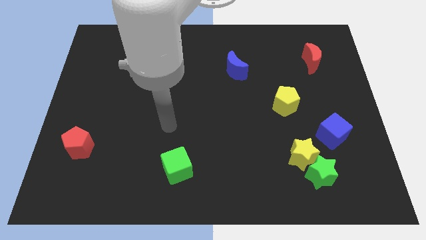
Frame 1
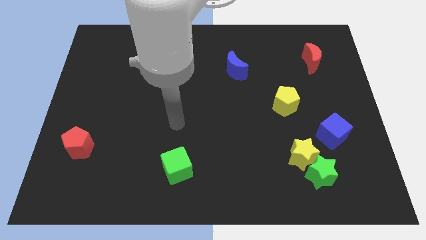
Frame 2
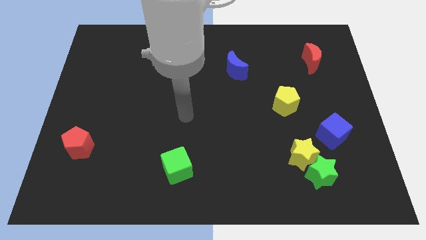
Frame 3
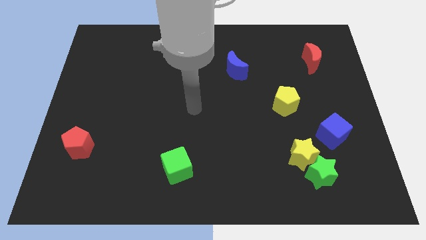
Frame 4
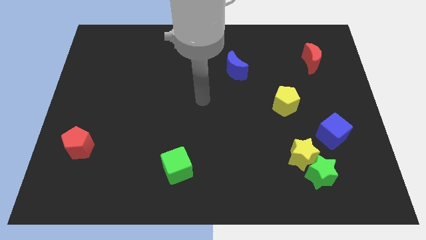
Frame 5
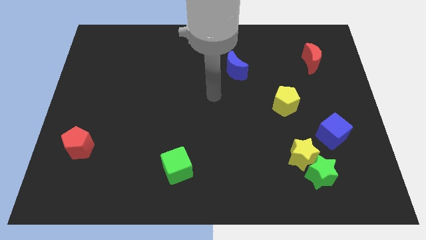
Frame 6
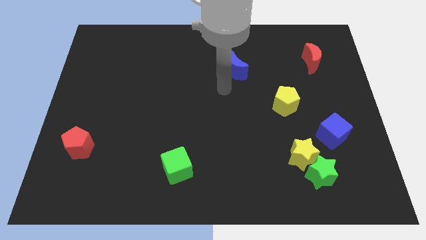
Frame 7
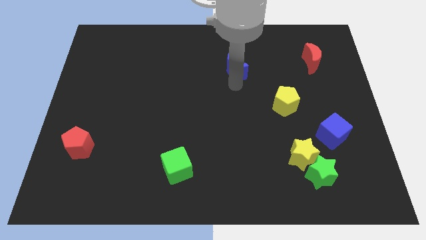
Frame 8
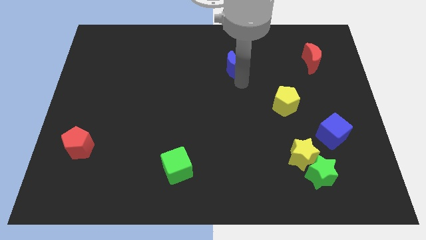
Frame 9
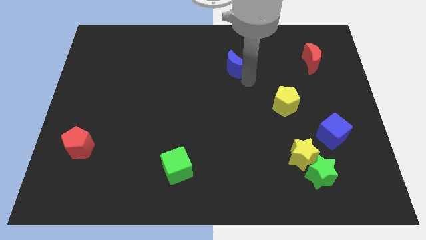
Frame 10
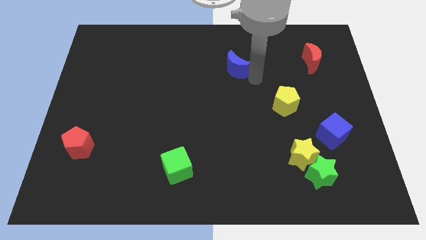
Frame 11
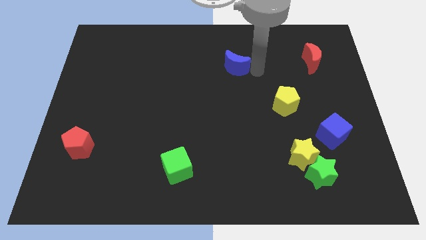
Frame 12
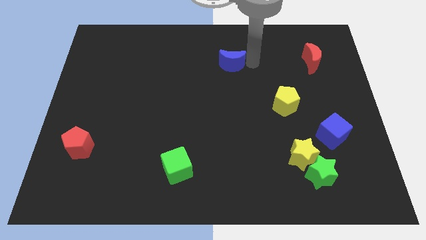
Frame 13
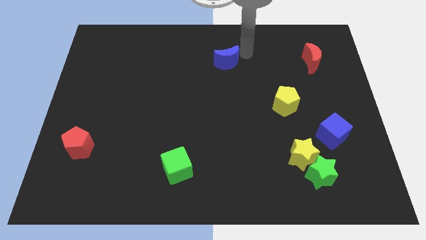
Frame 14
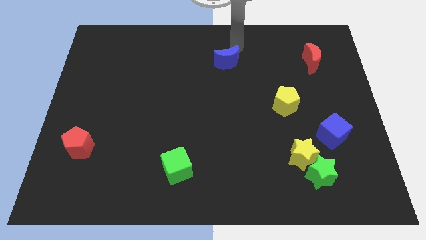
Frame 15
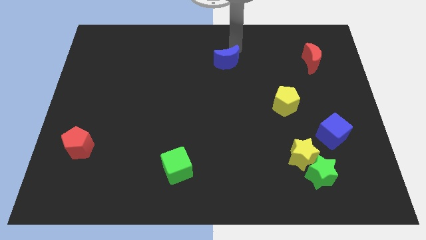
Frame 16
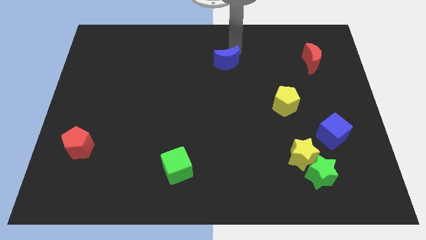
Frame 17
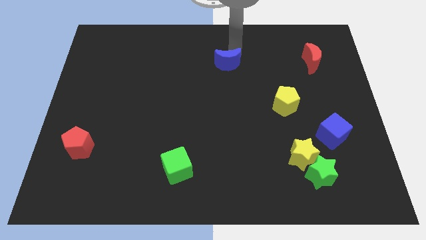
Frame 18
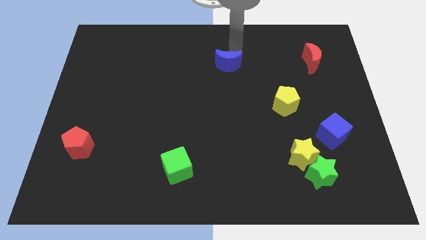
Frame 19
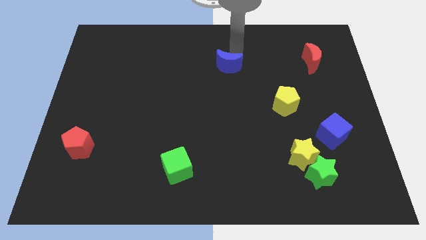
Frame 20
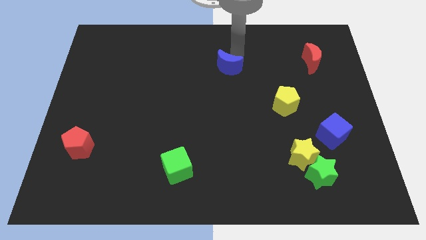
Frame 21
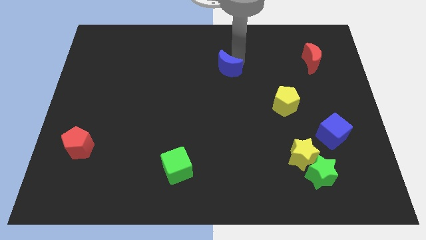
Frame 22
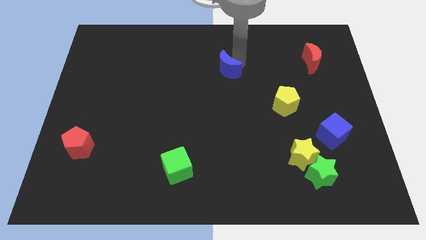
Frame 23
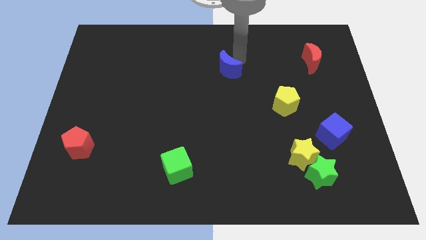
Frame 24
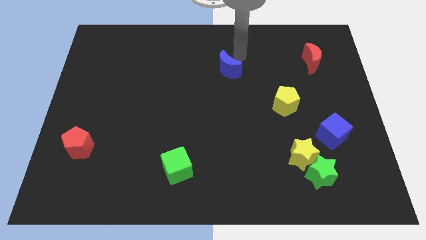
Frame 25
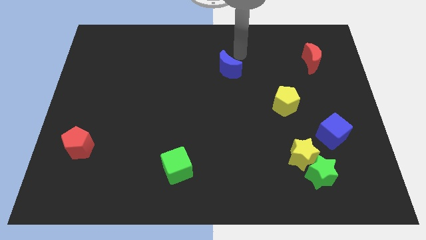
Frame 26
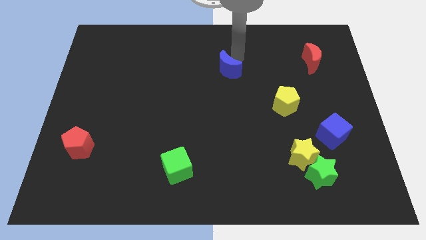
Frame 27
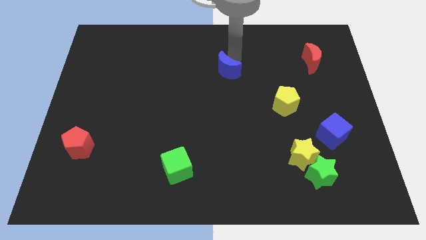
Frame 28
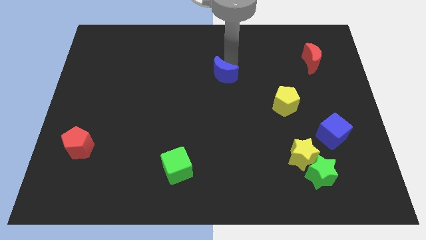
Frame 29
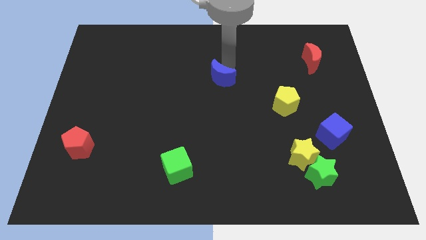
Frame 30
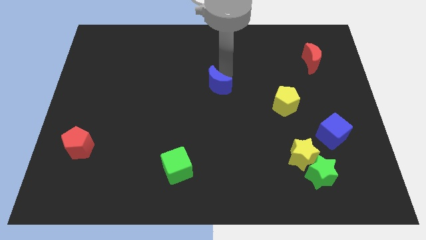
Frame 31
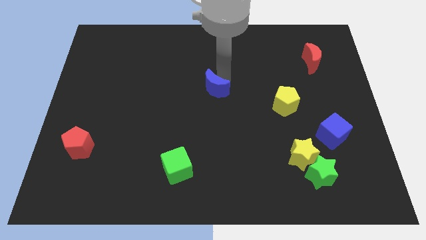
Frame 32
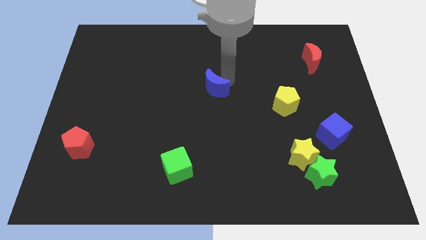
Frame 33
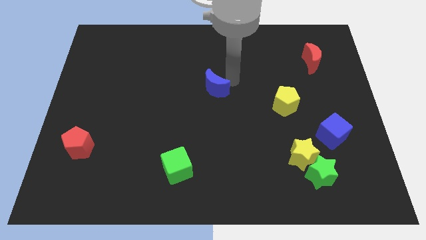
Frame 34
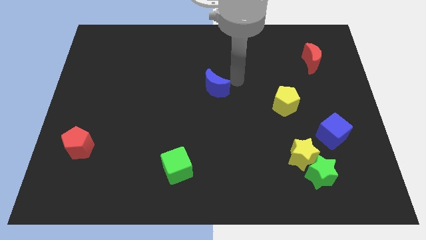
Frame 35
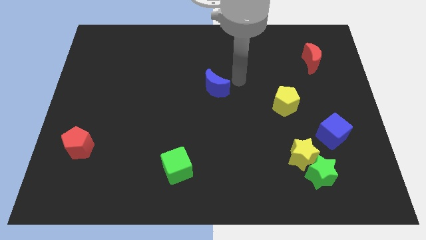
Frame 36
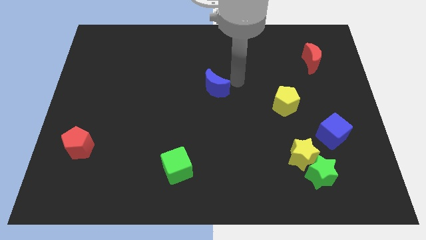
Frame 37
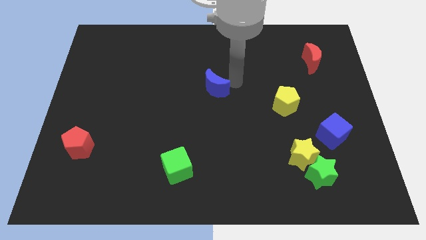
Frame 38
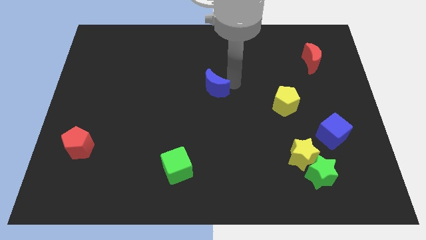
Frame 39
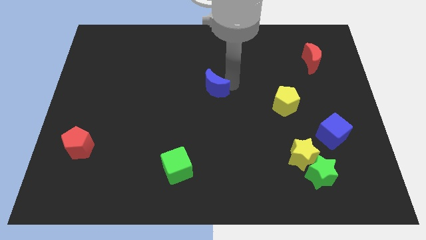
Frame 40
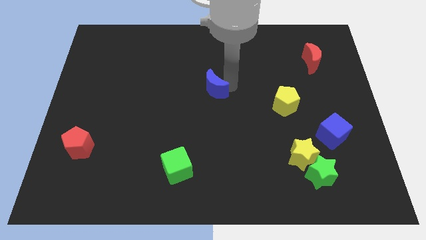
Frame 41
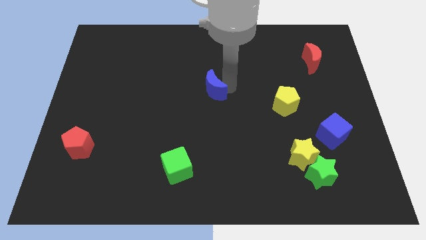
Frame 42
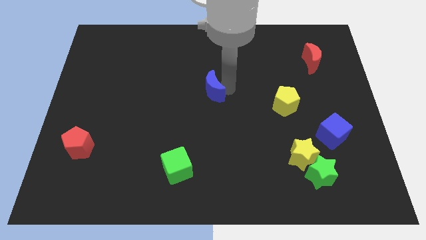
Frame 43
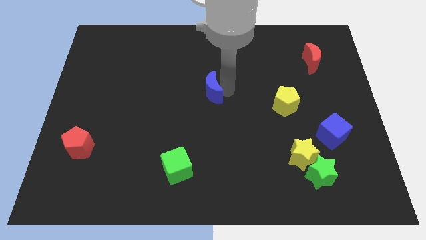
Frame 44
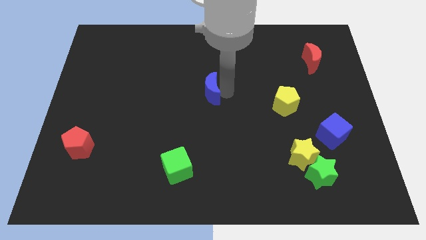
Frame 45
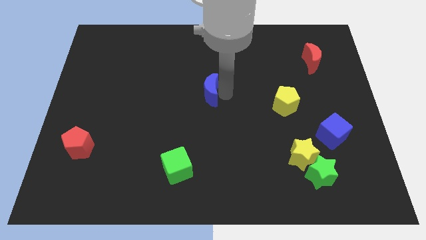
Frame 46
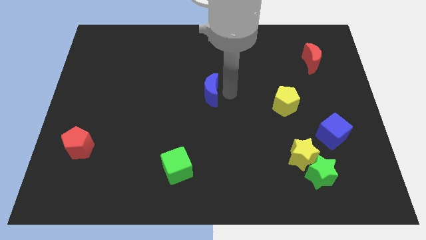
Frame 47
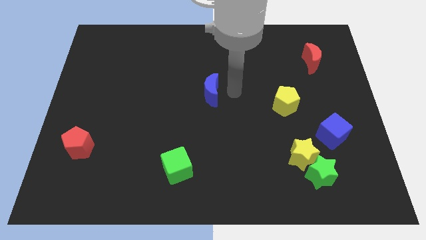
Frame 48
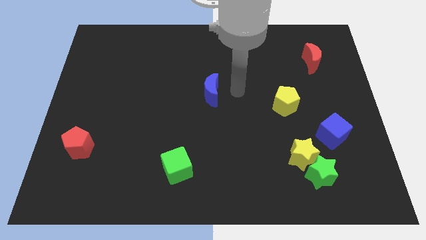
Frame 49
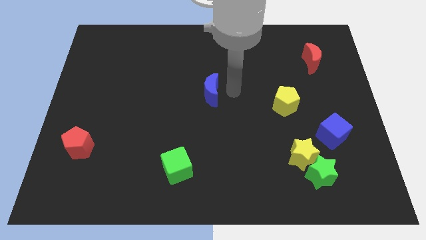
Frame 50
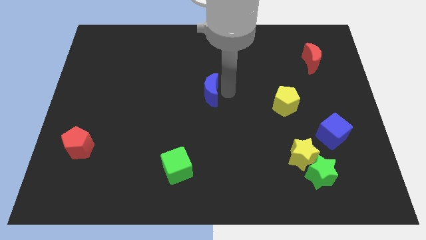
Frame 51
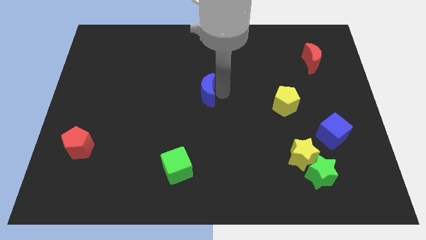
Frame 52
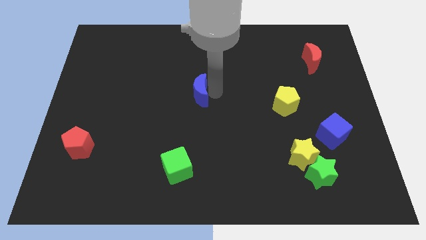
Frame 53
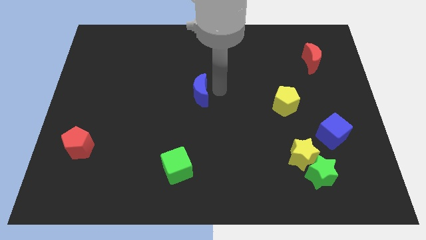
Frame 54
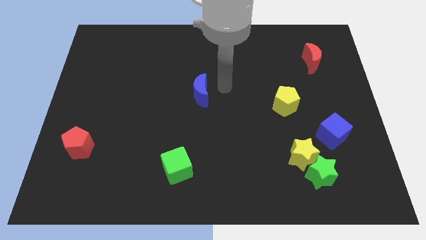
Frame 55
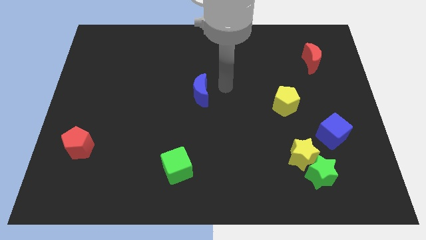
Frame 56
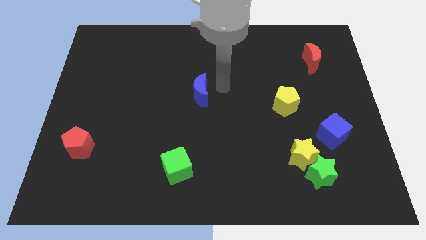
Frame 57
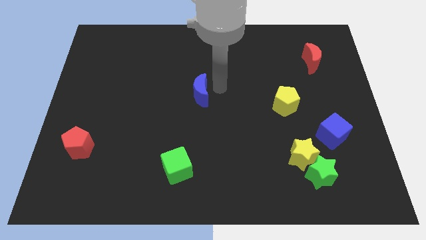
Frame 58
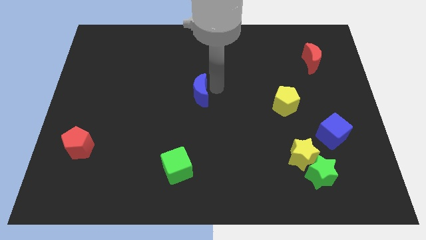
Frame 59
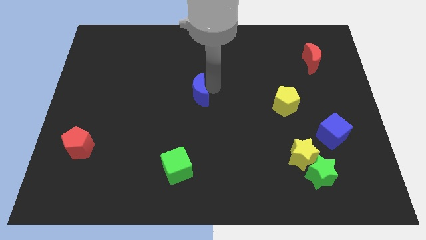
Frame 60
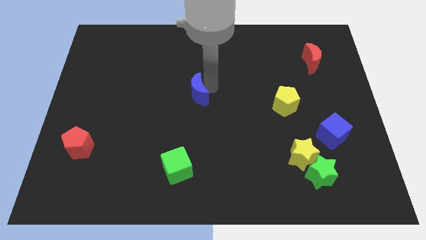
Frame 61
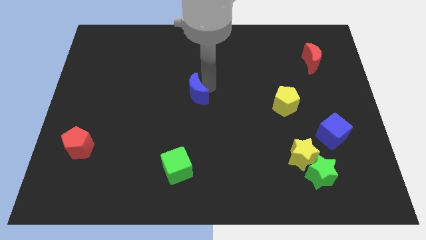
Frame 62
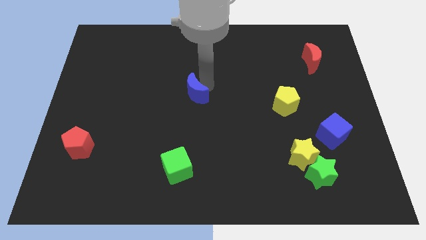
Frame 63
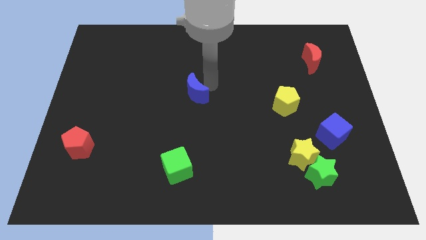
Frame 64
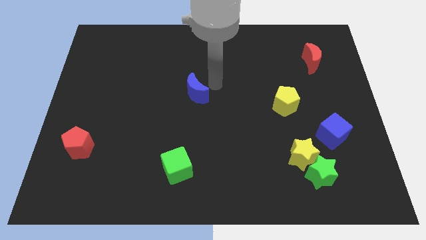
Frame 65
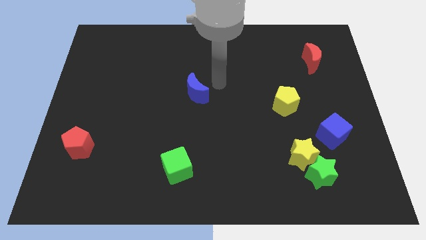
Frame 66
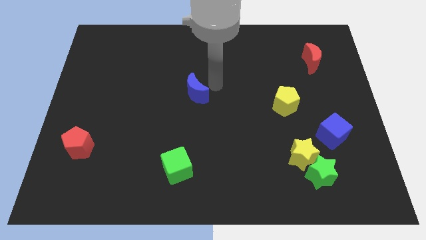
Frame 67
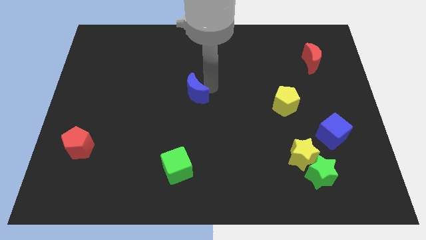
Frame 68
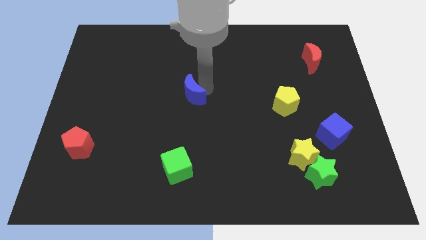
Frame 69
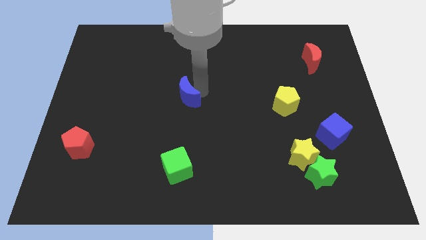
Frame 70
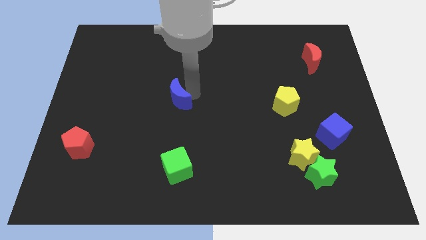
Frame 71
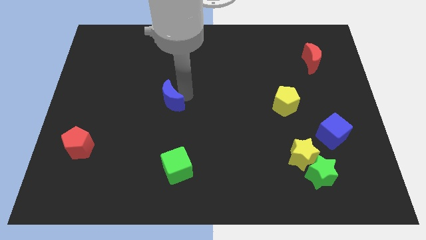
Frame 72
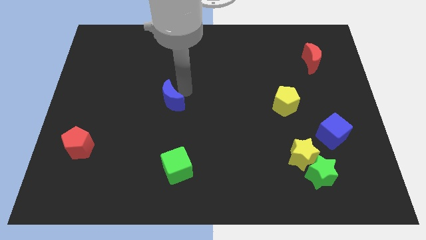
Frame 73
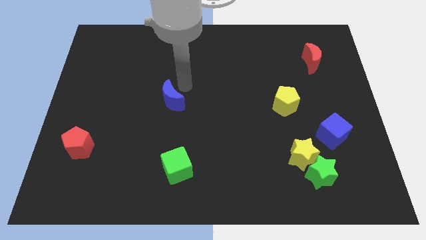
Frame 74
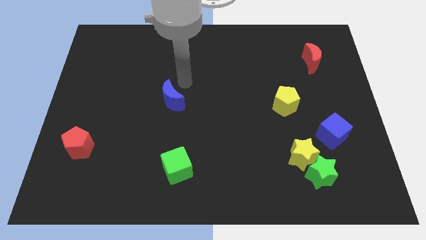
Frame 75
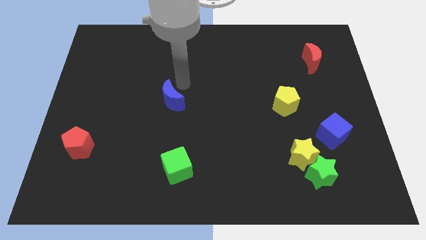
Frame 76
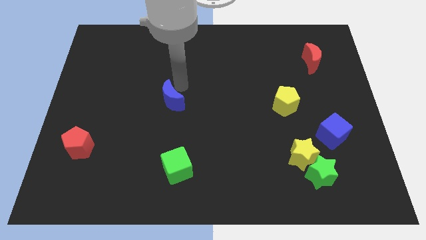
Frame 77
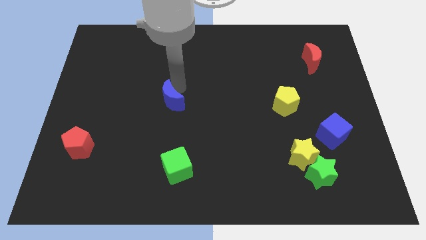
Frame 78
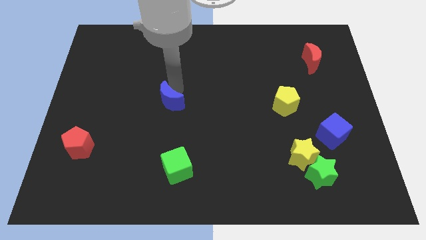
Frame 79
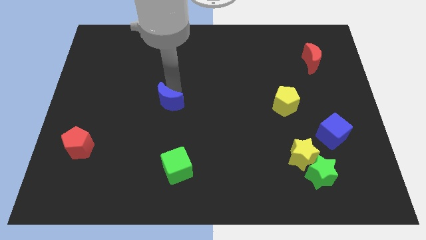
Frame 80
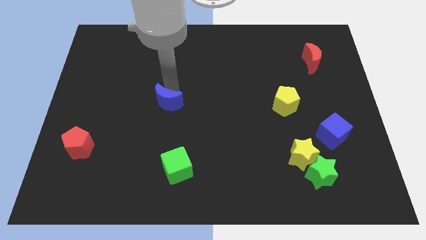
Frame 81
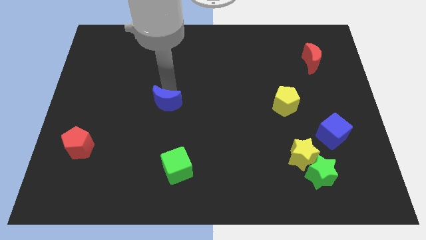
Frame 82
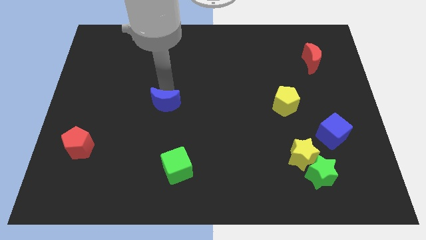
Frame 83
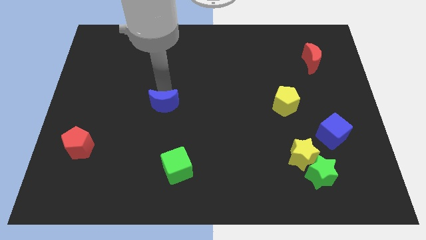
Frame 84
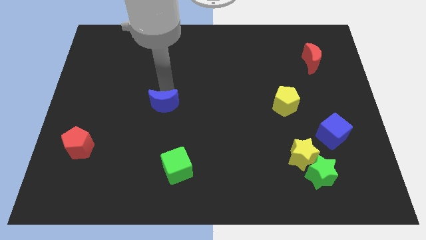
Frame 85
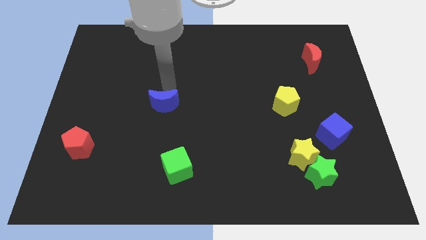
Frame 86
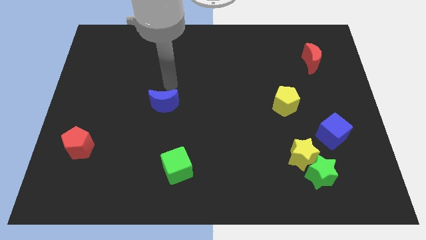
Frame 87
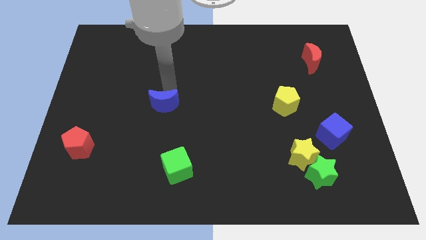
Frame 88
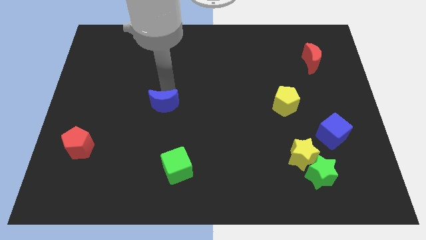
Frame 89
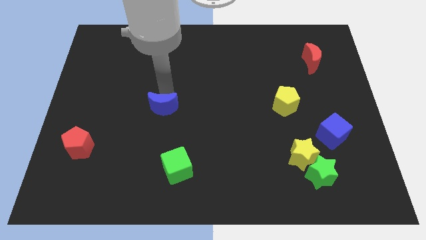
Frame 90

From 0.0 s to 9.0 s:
move the blue moon downwards and to the left diagonally
